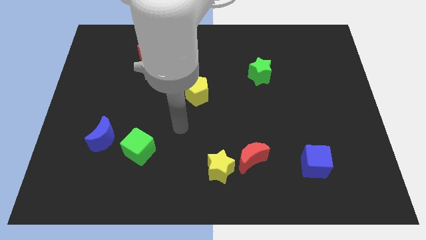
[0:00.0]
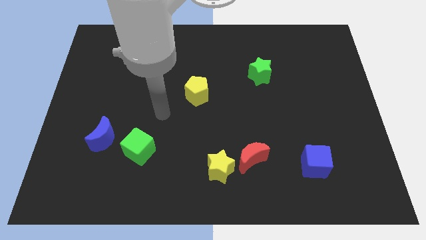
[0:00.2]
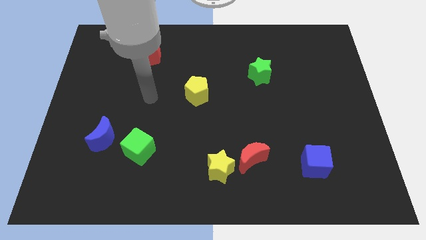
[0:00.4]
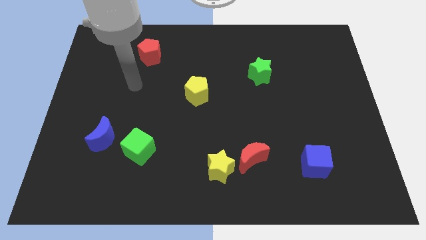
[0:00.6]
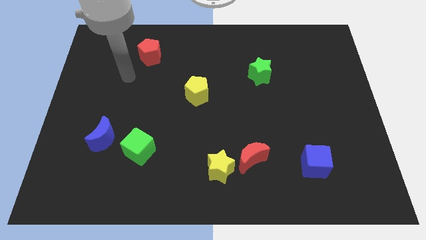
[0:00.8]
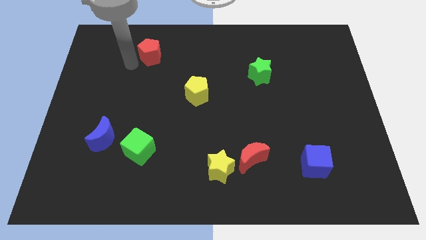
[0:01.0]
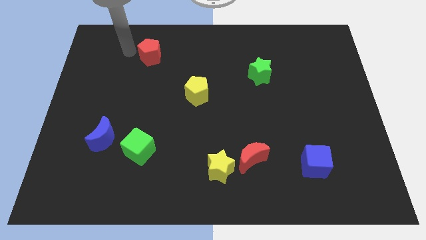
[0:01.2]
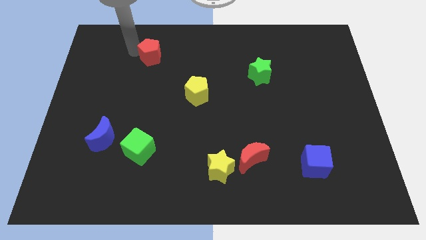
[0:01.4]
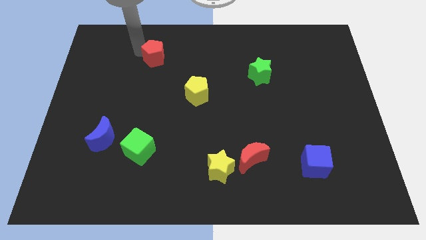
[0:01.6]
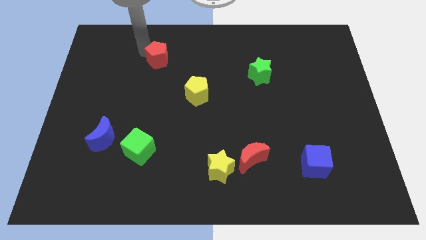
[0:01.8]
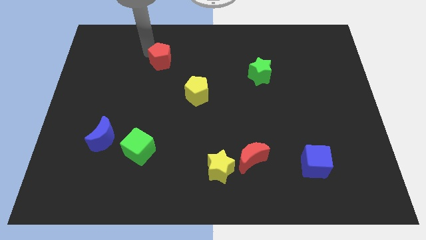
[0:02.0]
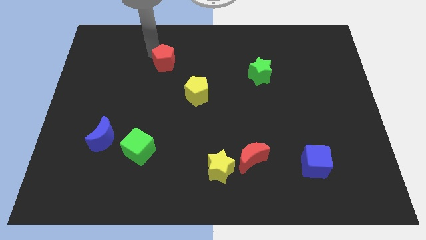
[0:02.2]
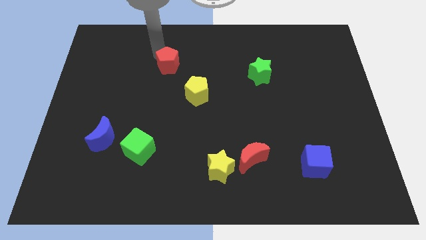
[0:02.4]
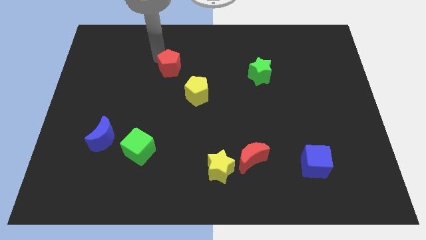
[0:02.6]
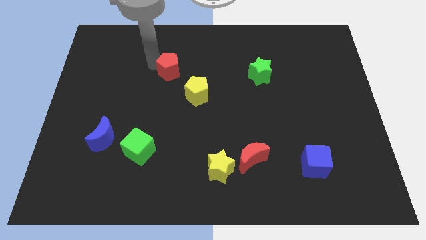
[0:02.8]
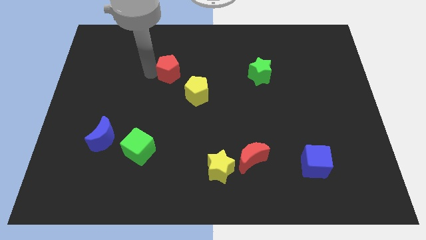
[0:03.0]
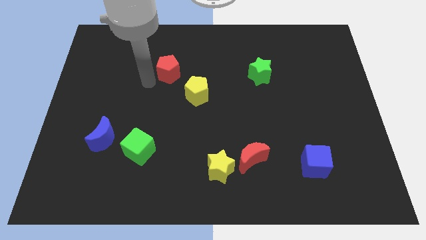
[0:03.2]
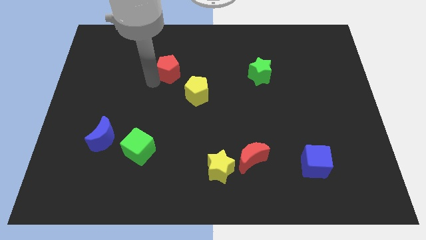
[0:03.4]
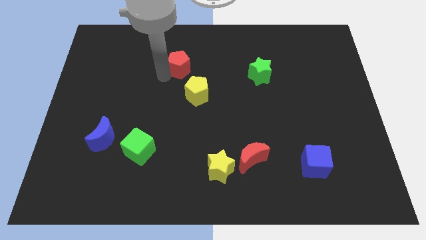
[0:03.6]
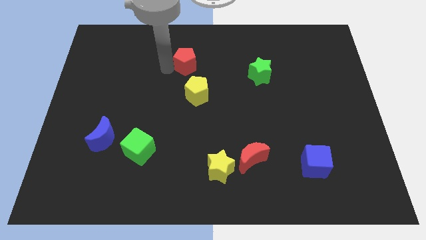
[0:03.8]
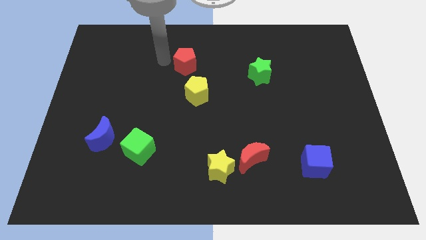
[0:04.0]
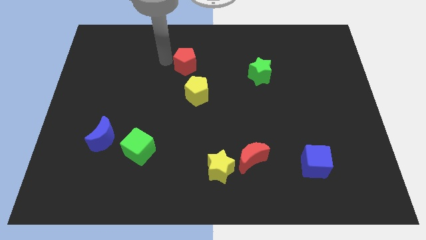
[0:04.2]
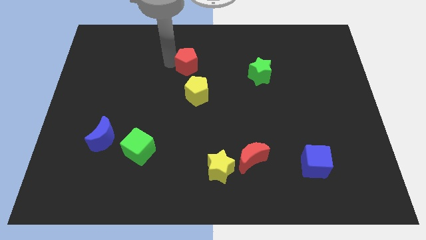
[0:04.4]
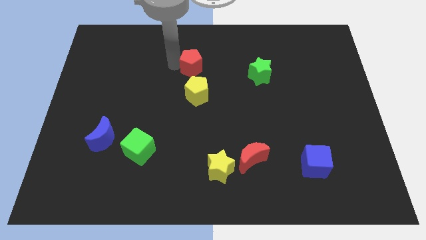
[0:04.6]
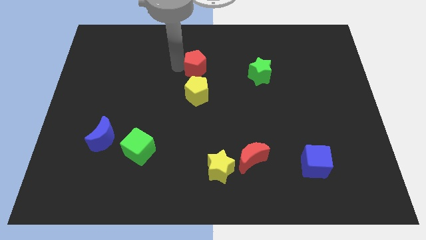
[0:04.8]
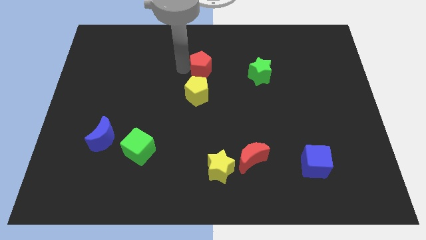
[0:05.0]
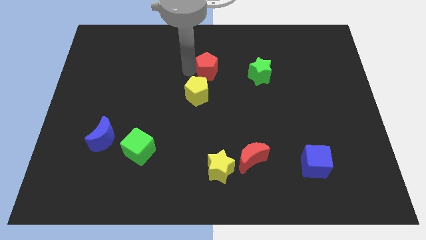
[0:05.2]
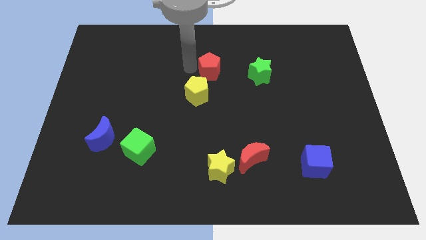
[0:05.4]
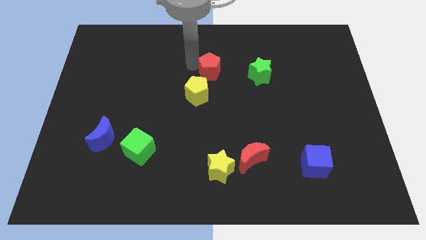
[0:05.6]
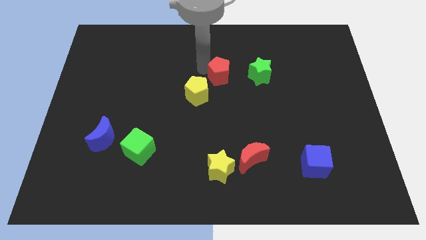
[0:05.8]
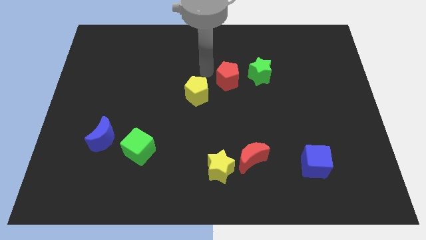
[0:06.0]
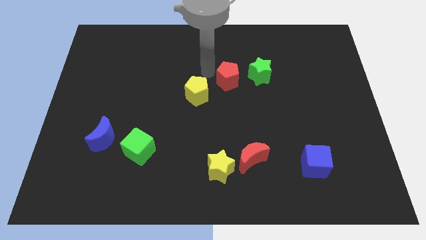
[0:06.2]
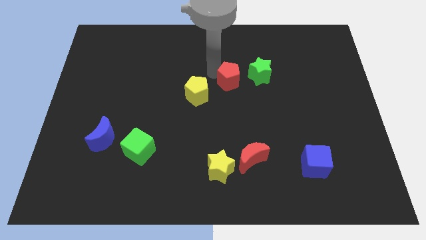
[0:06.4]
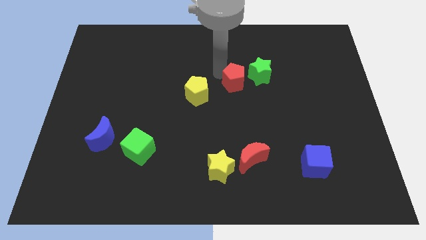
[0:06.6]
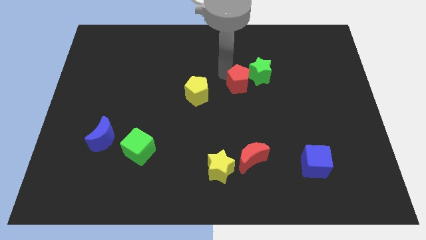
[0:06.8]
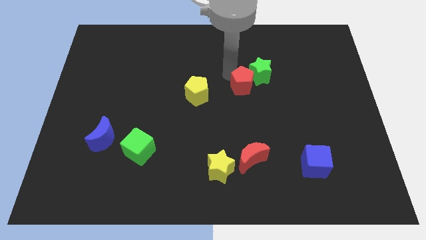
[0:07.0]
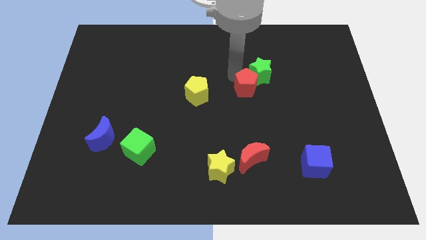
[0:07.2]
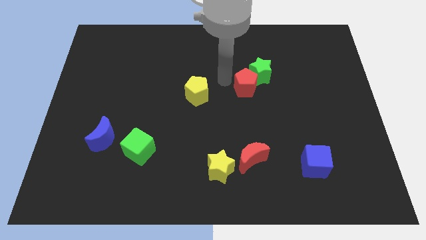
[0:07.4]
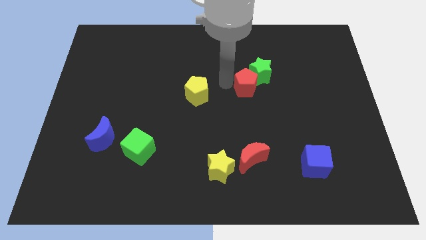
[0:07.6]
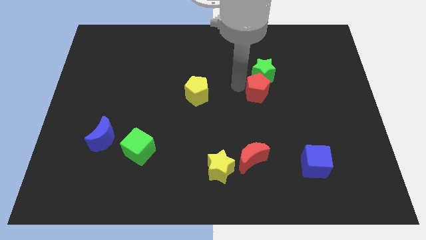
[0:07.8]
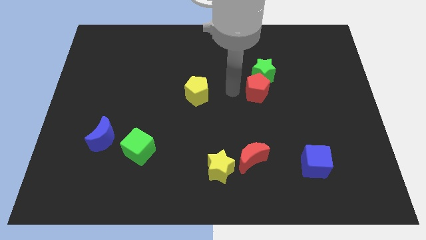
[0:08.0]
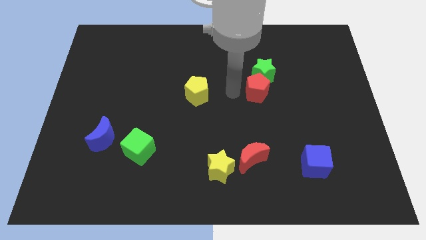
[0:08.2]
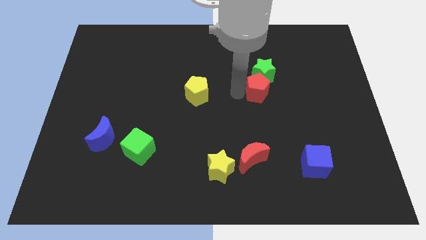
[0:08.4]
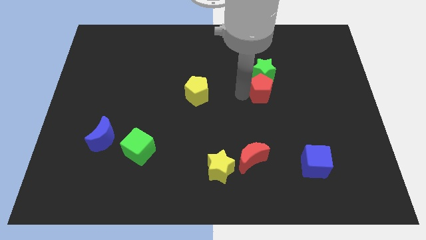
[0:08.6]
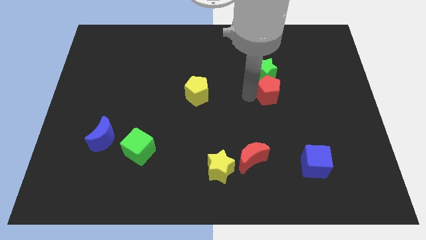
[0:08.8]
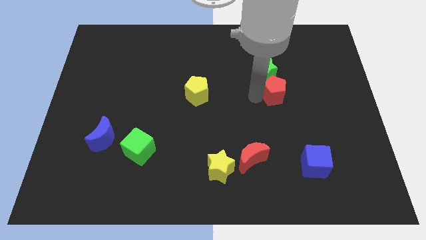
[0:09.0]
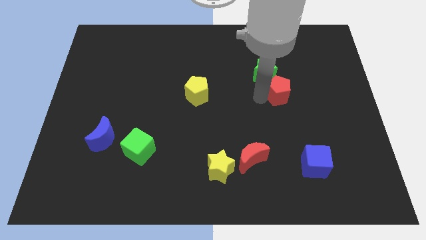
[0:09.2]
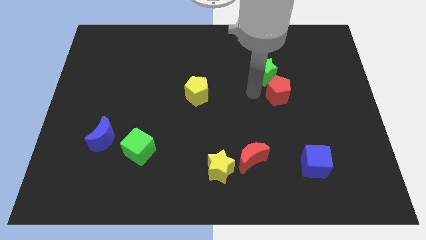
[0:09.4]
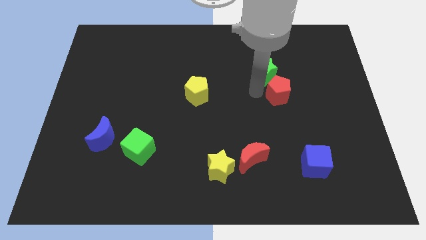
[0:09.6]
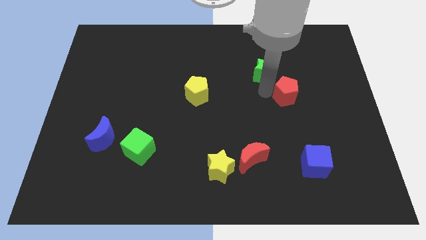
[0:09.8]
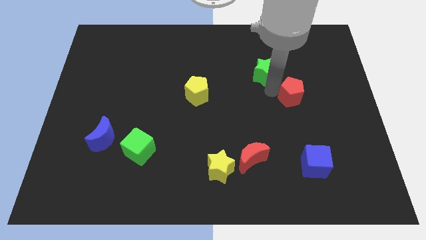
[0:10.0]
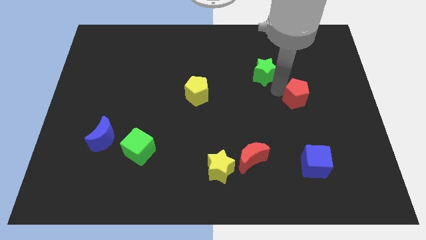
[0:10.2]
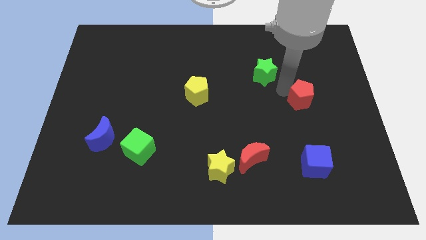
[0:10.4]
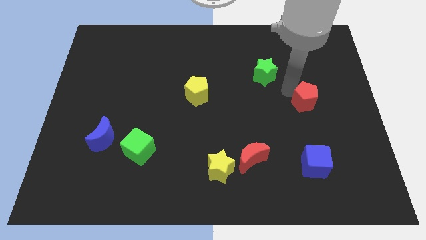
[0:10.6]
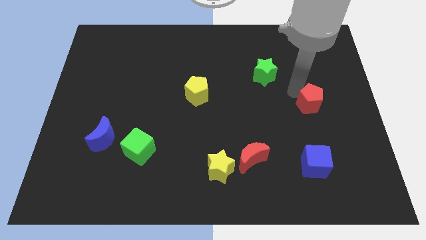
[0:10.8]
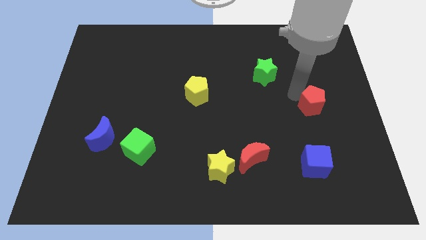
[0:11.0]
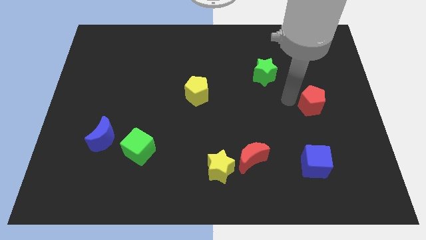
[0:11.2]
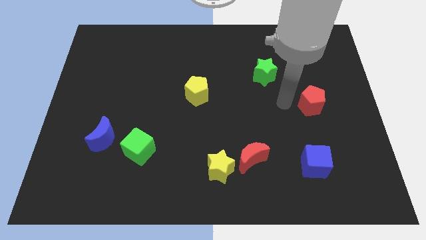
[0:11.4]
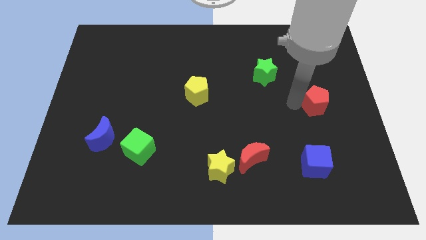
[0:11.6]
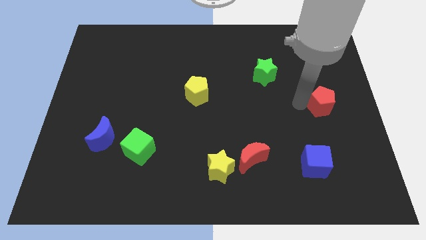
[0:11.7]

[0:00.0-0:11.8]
push the red pentagon to the center right
